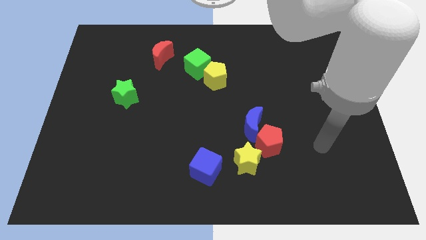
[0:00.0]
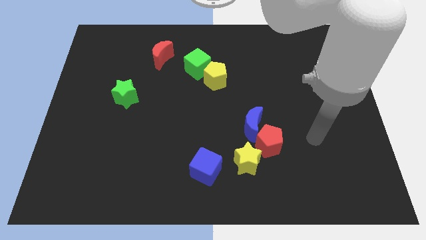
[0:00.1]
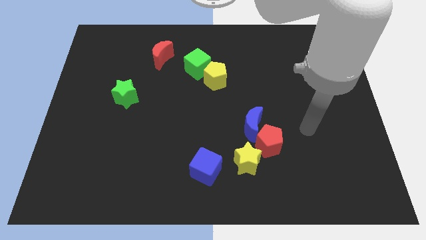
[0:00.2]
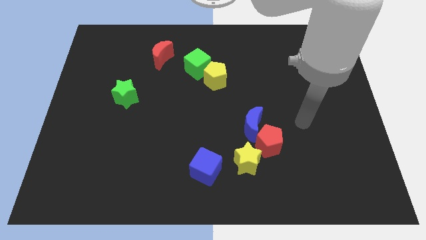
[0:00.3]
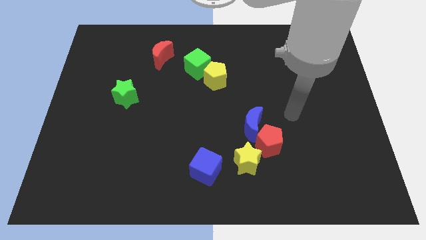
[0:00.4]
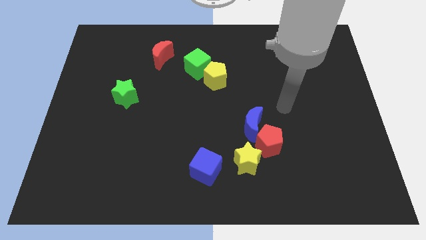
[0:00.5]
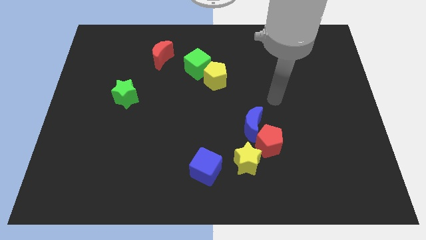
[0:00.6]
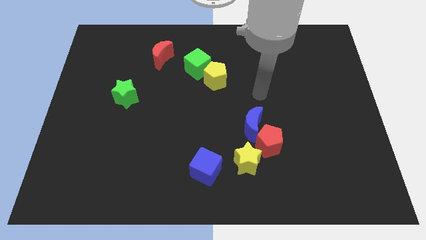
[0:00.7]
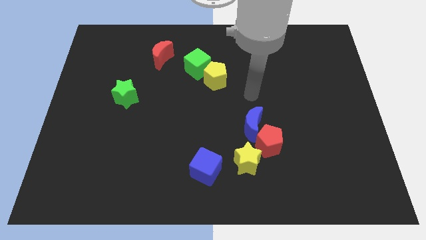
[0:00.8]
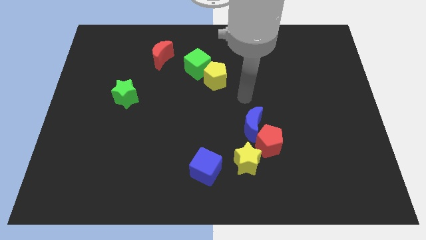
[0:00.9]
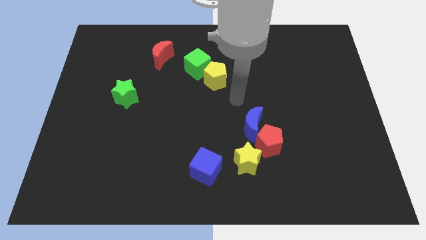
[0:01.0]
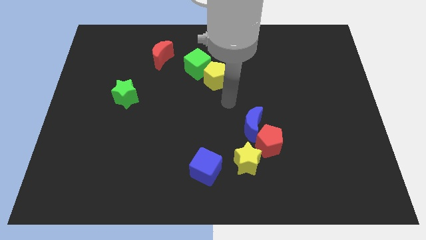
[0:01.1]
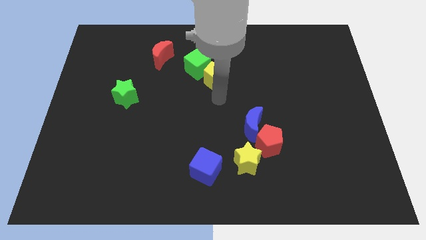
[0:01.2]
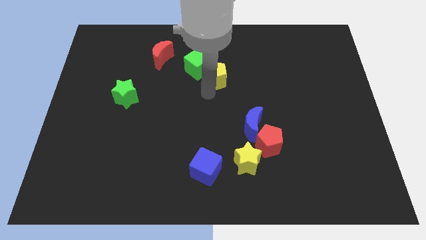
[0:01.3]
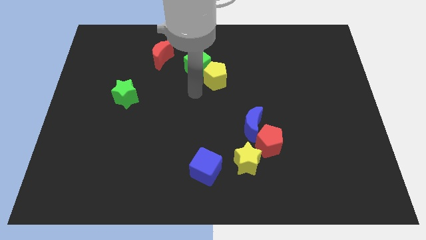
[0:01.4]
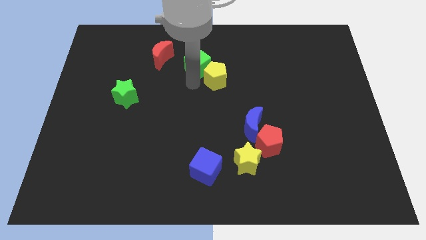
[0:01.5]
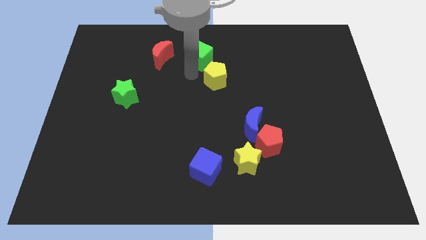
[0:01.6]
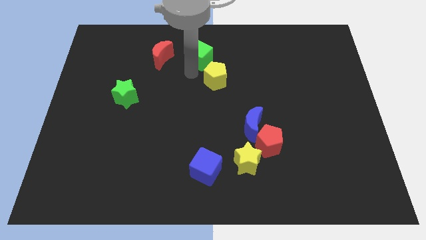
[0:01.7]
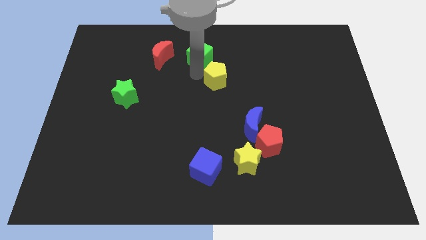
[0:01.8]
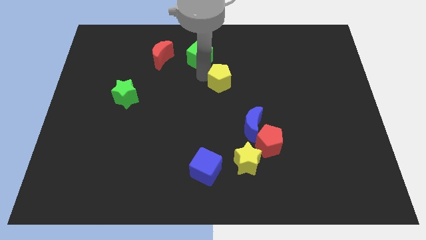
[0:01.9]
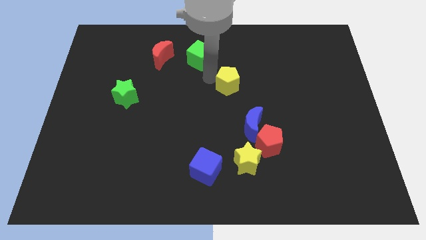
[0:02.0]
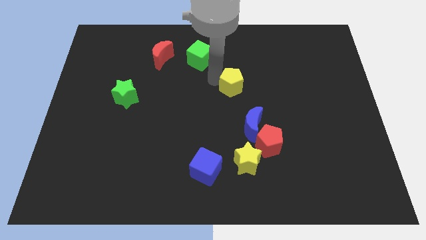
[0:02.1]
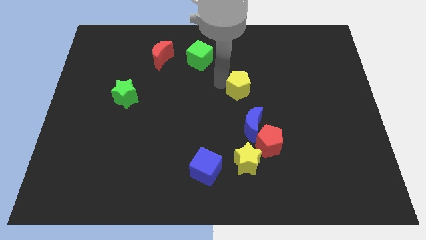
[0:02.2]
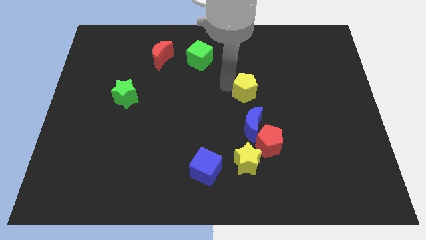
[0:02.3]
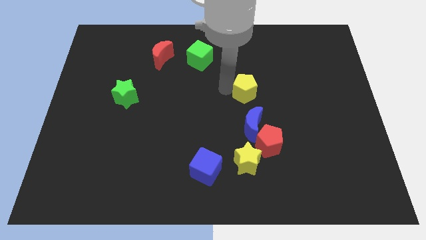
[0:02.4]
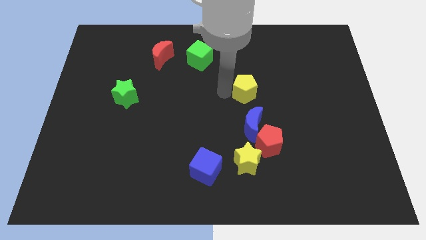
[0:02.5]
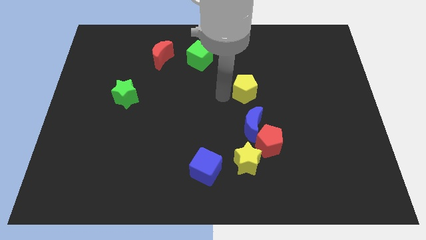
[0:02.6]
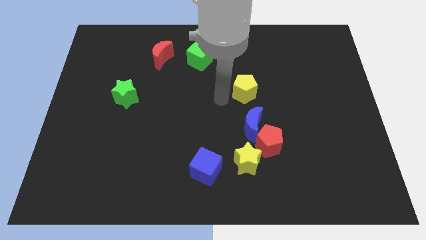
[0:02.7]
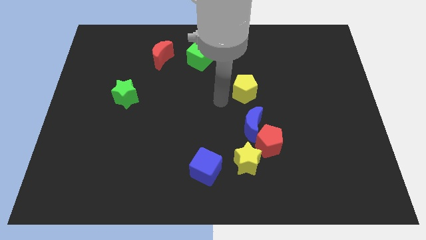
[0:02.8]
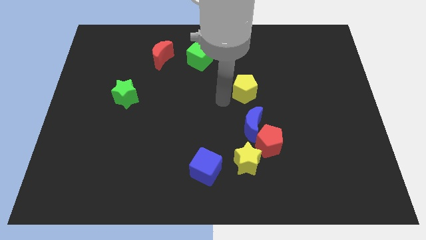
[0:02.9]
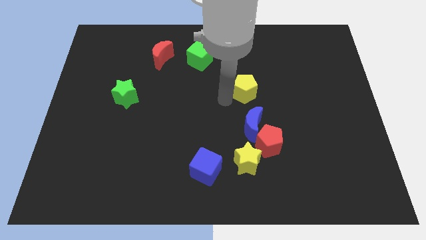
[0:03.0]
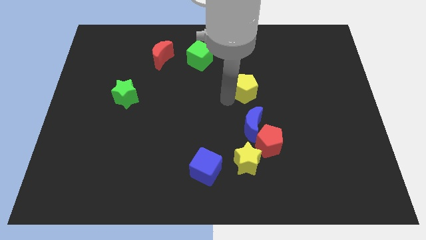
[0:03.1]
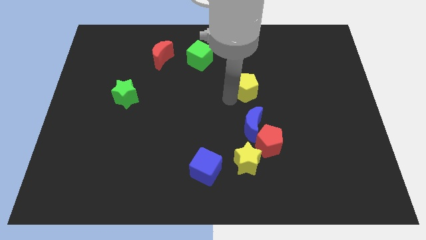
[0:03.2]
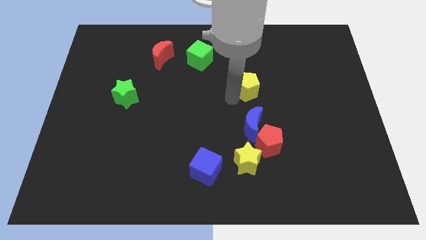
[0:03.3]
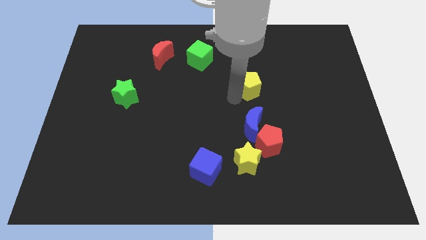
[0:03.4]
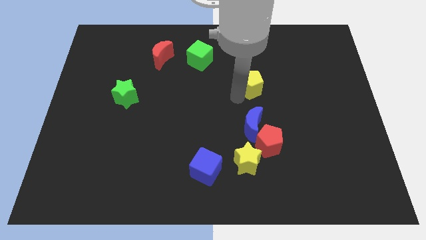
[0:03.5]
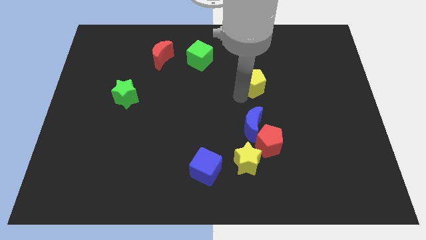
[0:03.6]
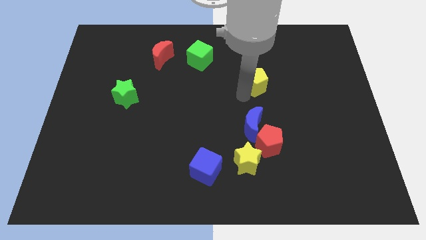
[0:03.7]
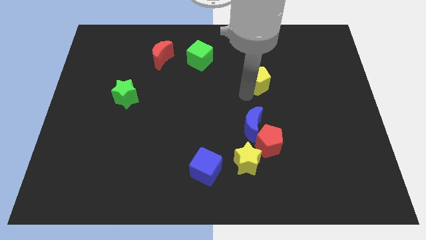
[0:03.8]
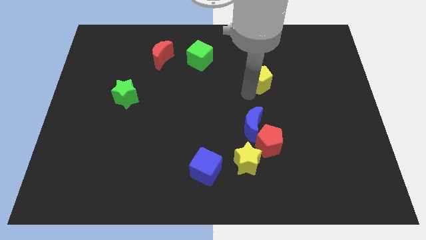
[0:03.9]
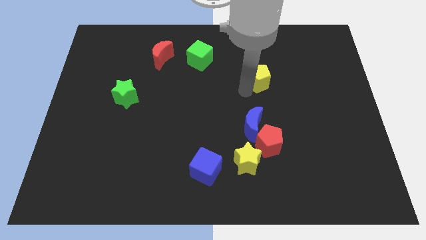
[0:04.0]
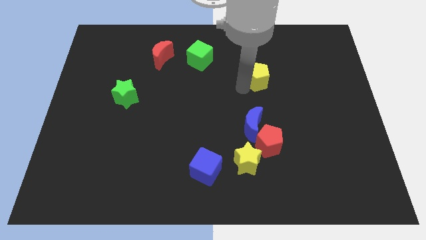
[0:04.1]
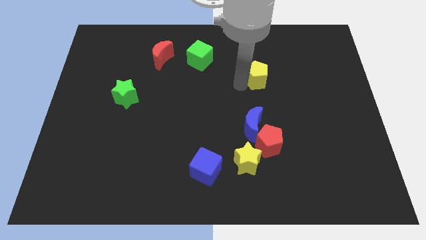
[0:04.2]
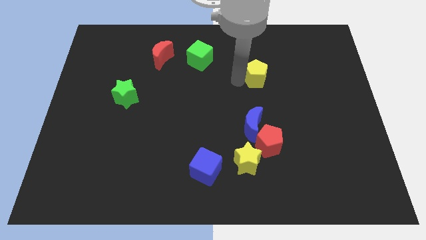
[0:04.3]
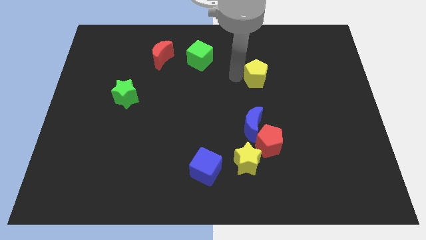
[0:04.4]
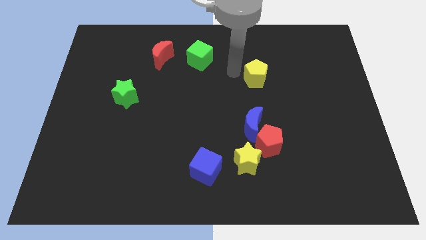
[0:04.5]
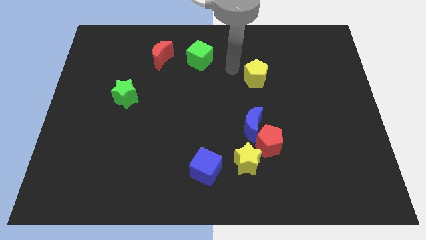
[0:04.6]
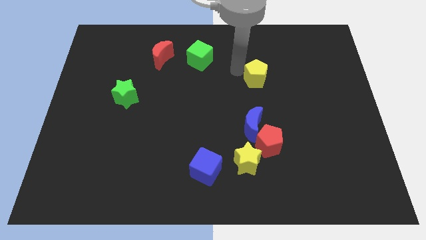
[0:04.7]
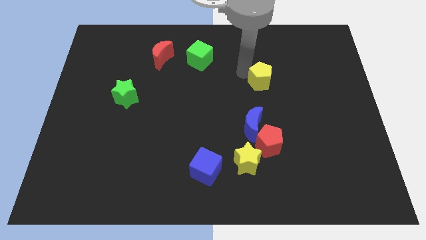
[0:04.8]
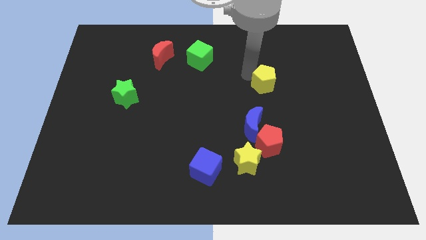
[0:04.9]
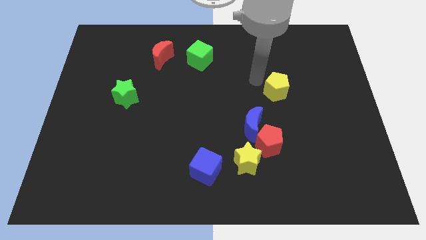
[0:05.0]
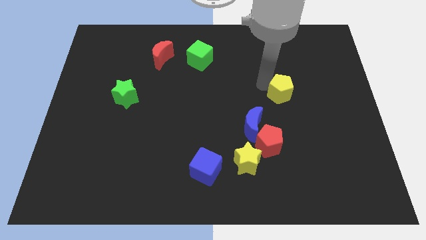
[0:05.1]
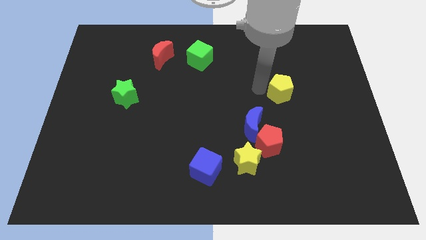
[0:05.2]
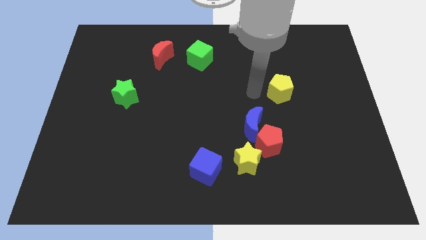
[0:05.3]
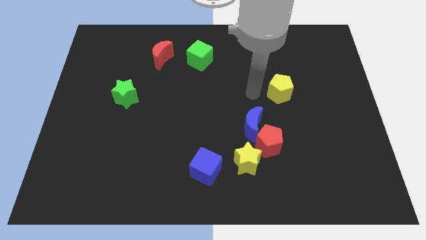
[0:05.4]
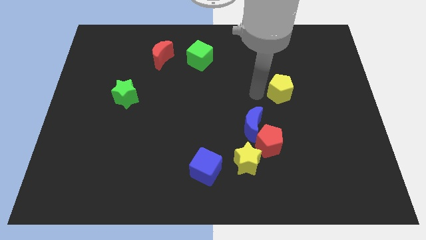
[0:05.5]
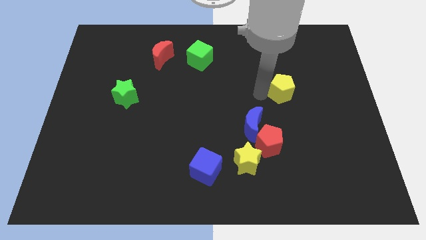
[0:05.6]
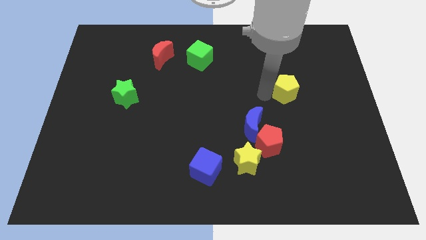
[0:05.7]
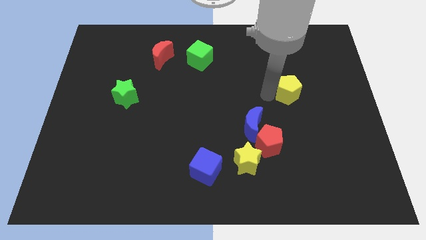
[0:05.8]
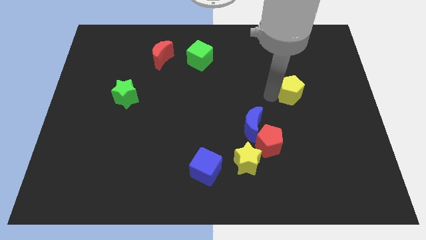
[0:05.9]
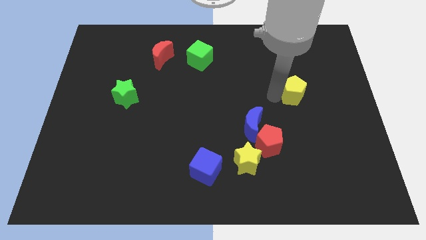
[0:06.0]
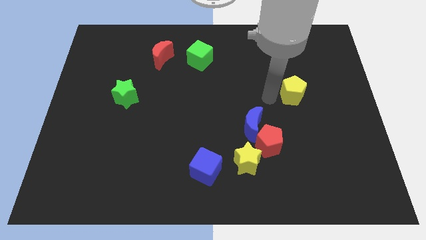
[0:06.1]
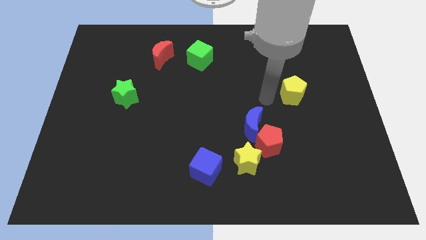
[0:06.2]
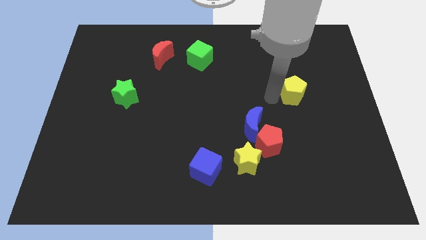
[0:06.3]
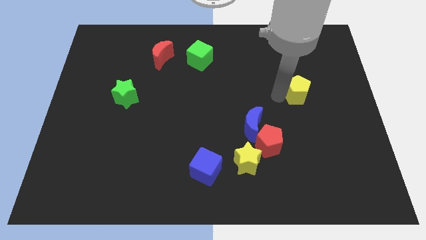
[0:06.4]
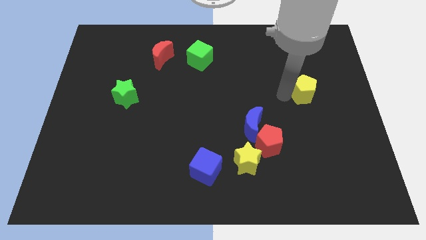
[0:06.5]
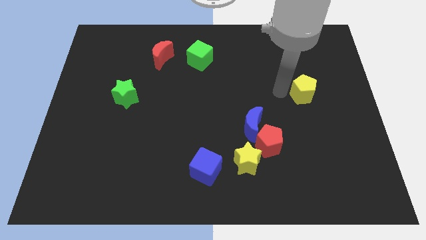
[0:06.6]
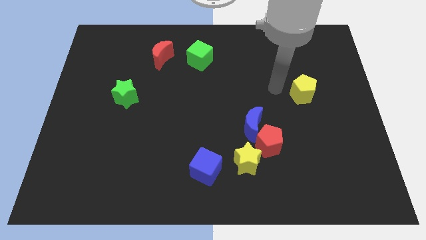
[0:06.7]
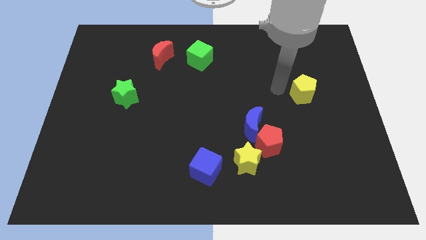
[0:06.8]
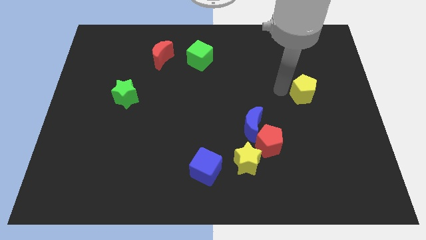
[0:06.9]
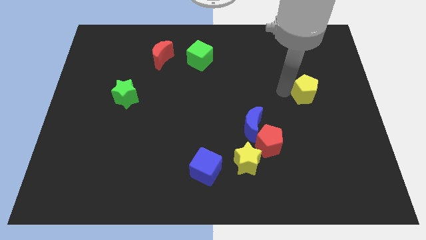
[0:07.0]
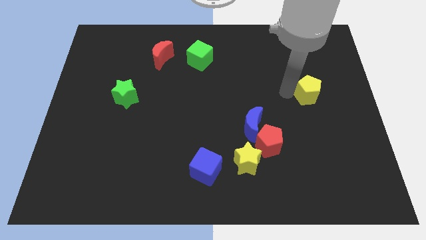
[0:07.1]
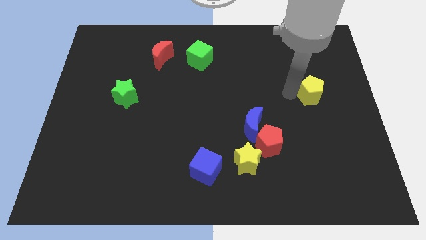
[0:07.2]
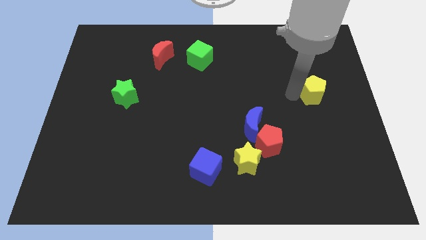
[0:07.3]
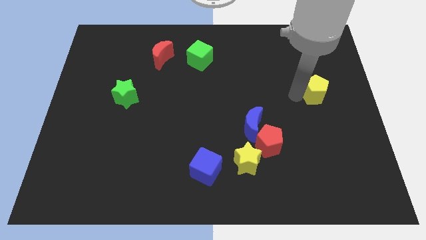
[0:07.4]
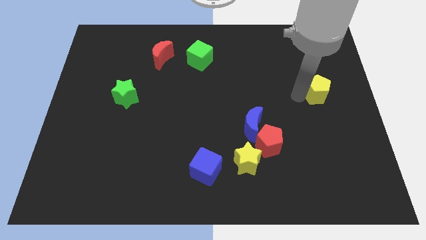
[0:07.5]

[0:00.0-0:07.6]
move the yellow pentagon to the center right
